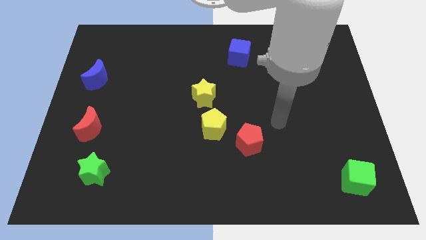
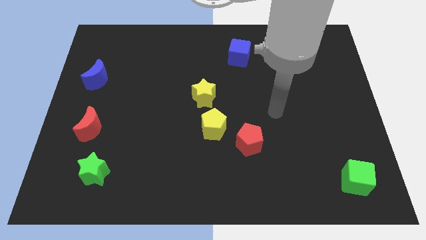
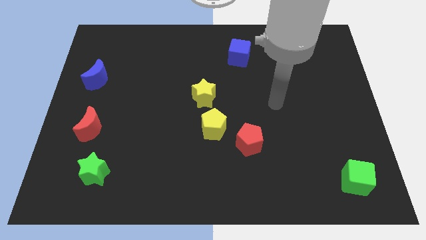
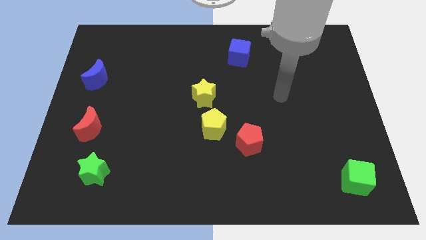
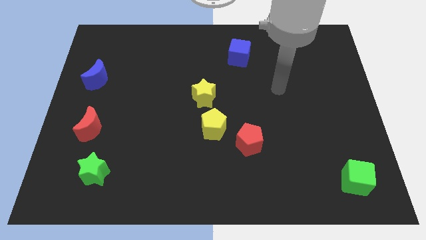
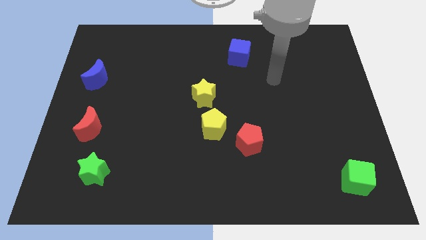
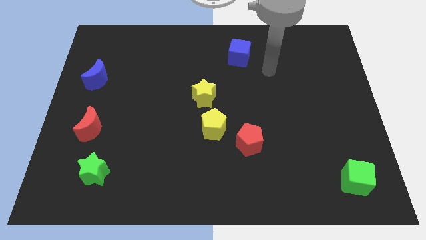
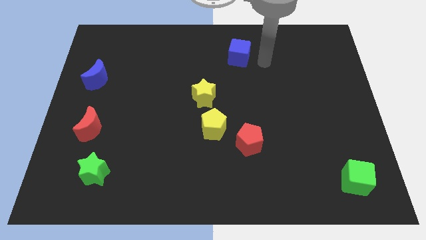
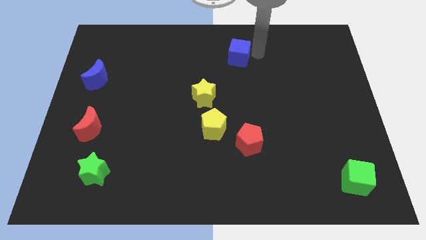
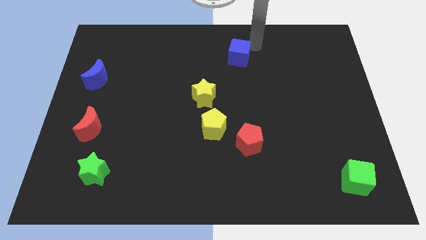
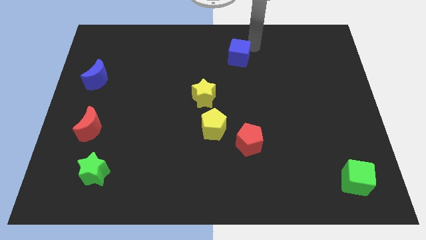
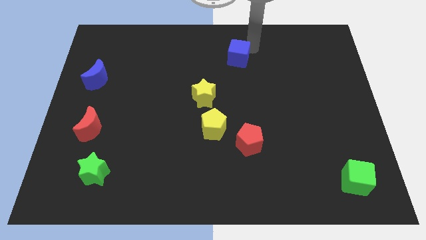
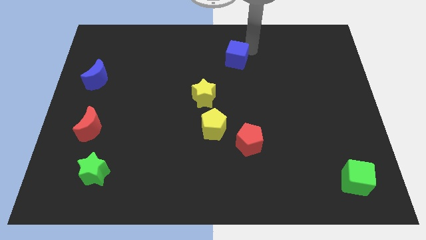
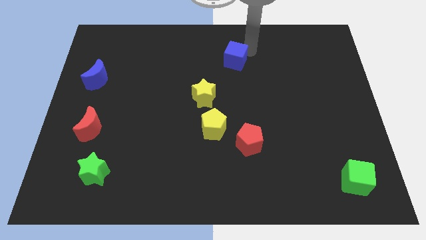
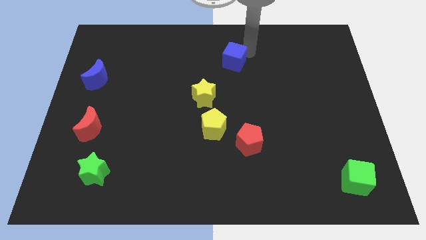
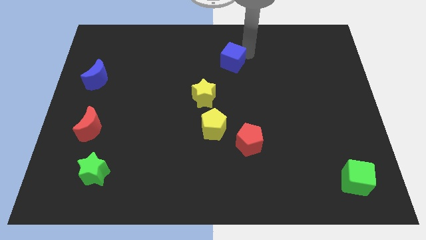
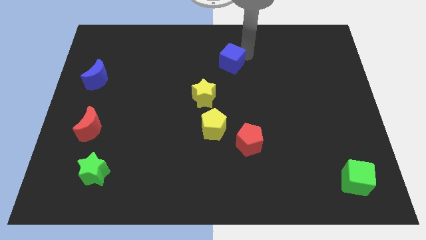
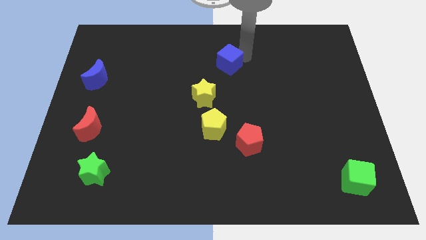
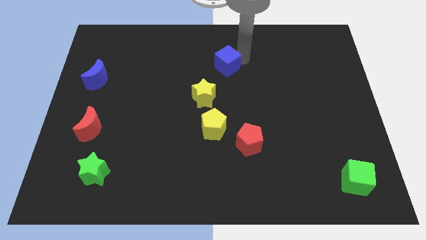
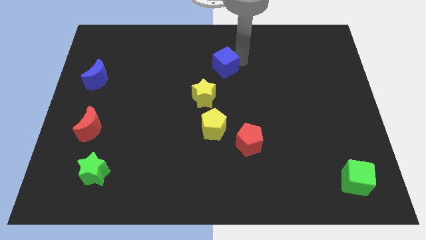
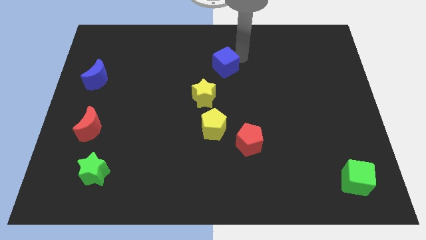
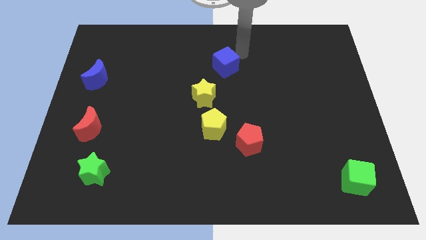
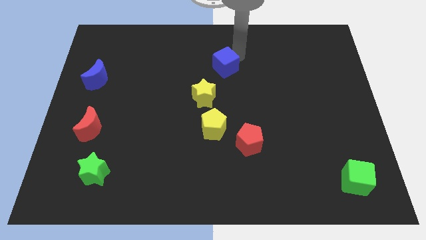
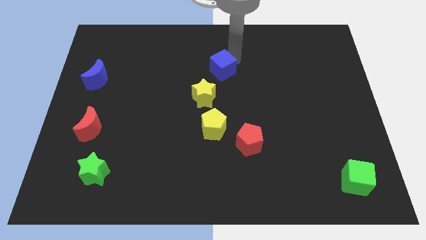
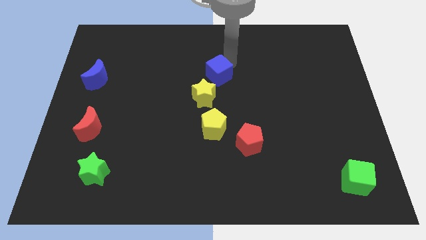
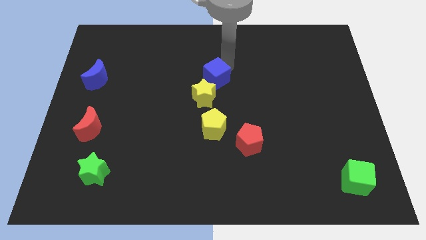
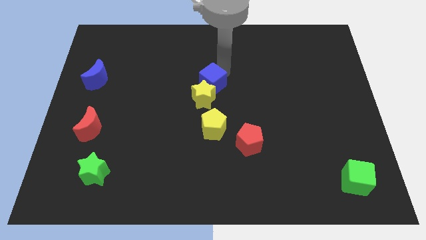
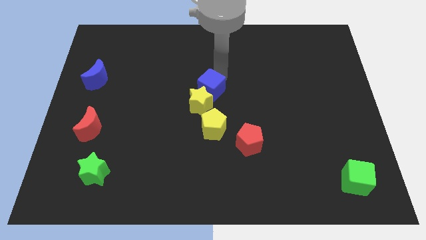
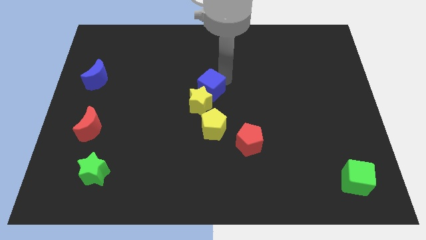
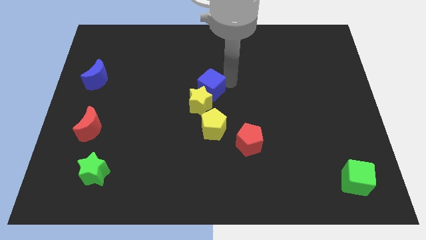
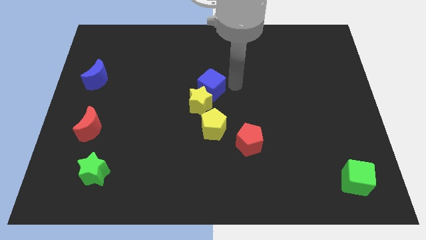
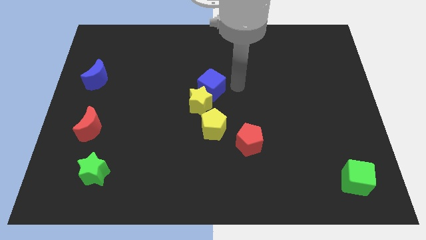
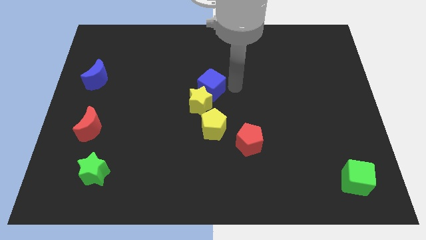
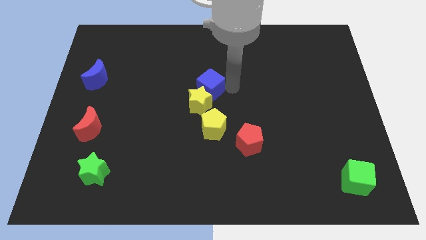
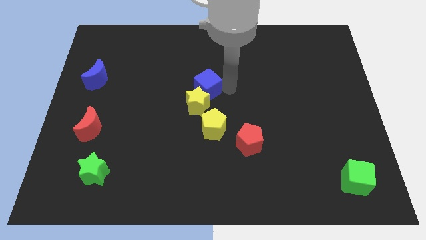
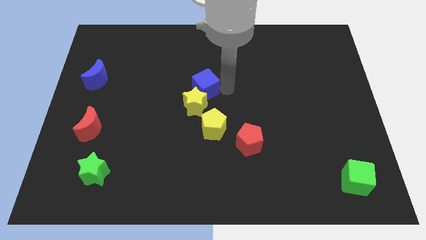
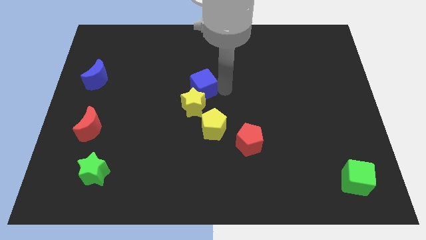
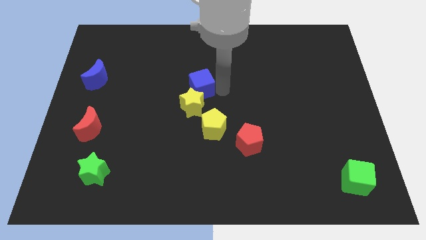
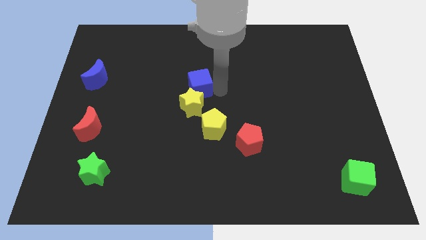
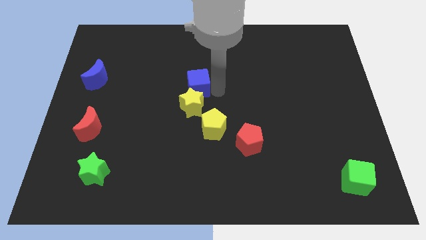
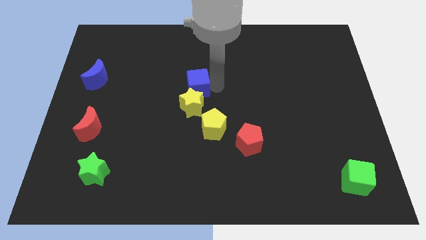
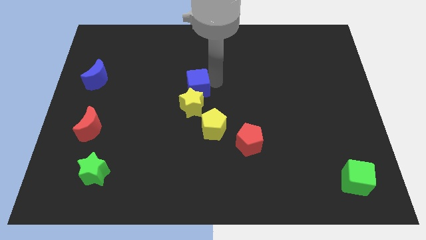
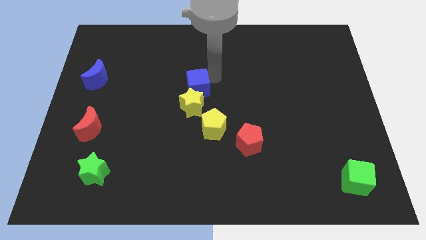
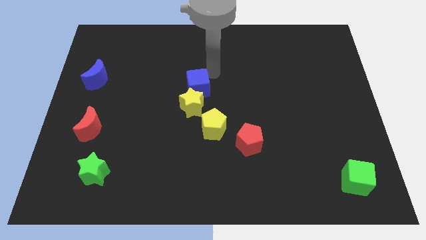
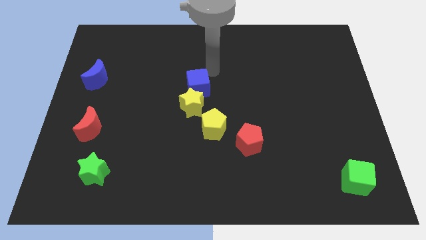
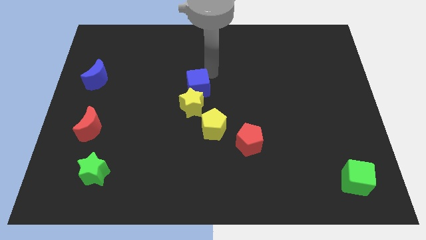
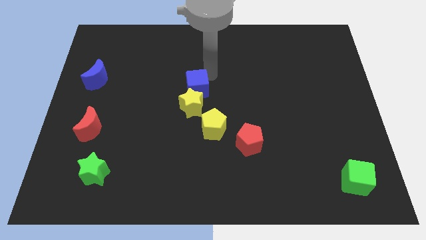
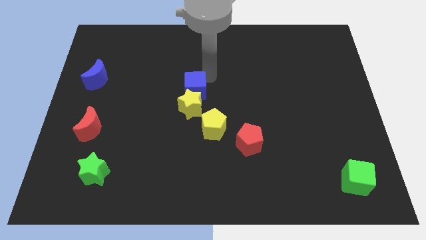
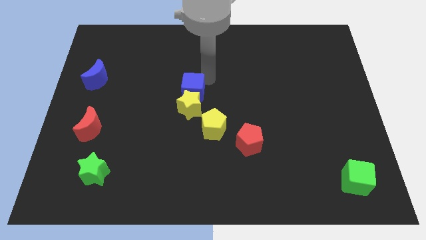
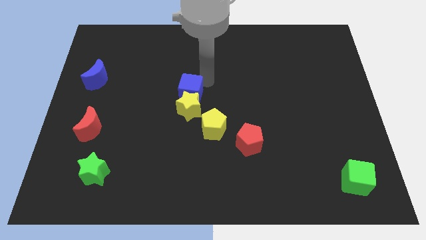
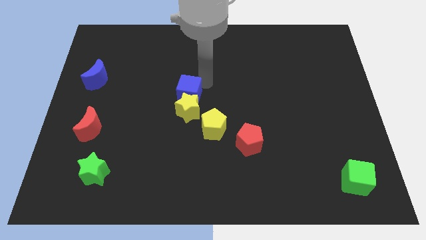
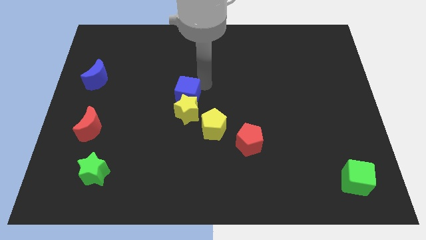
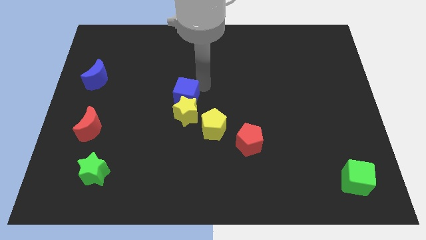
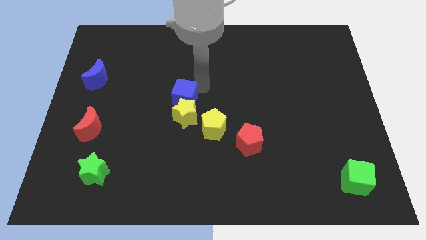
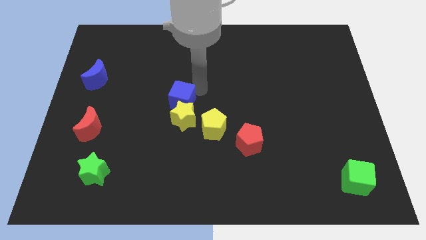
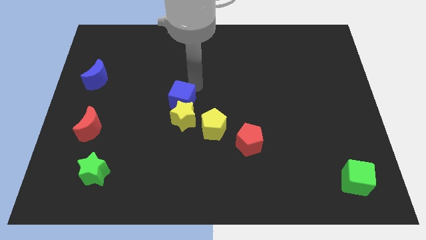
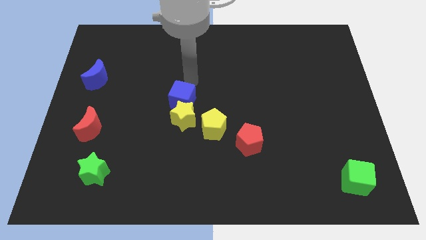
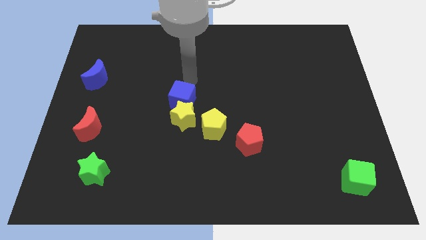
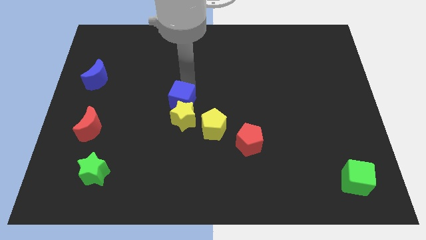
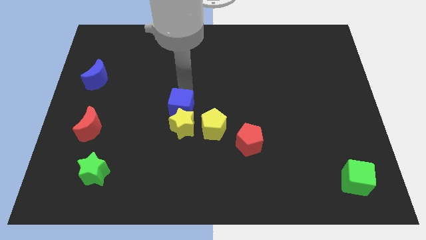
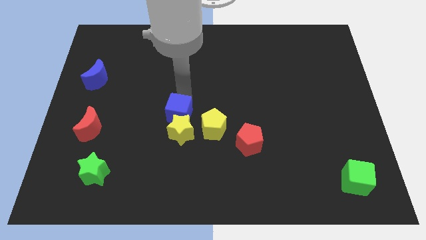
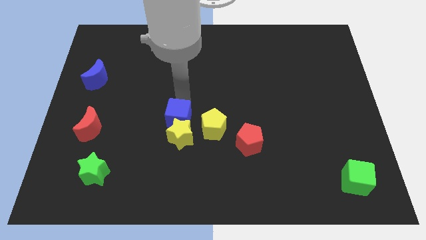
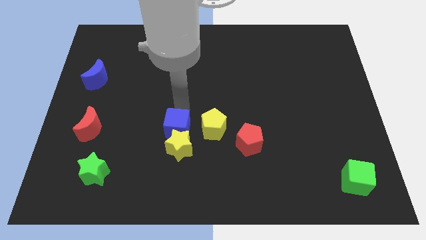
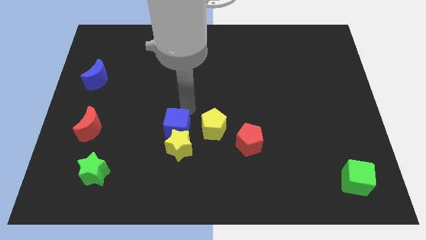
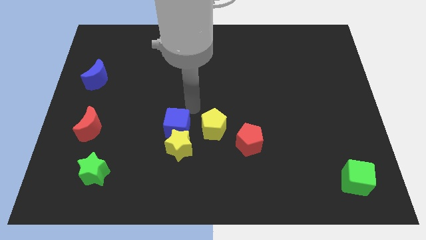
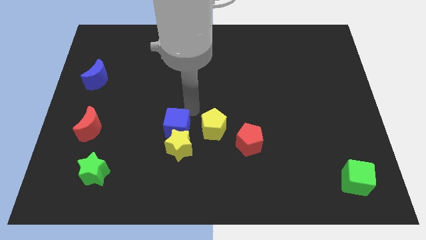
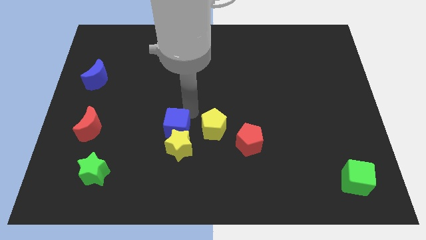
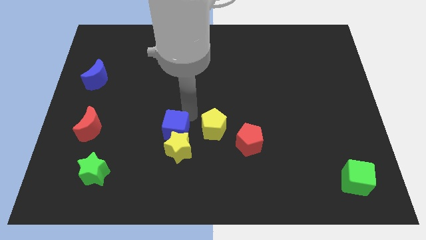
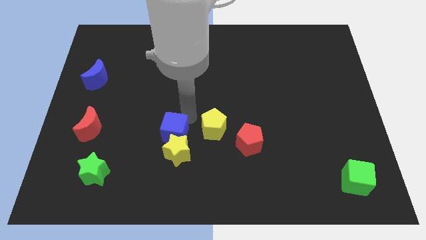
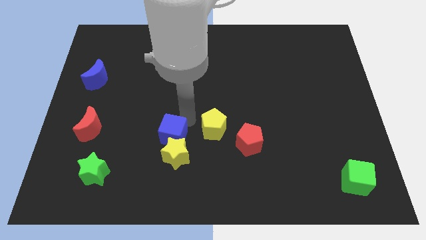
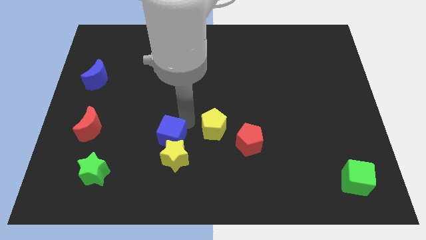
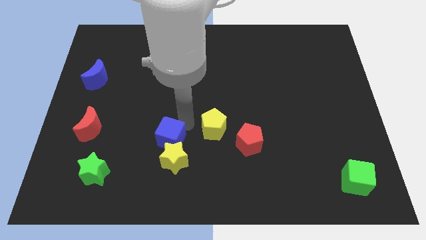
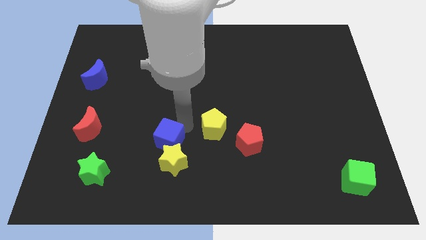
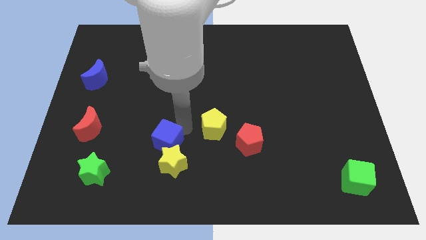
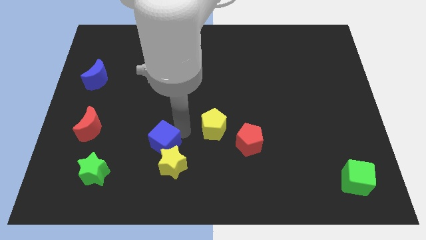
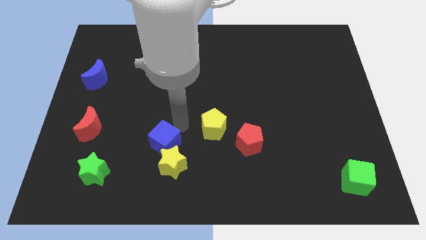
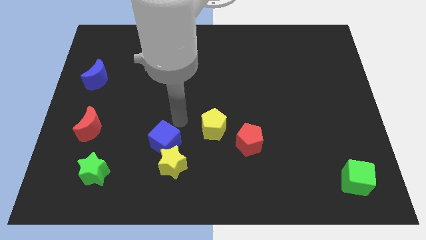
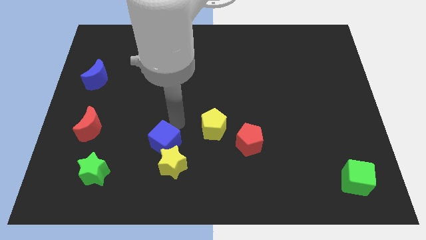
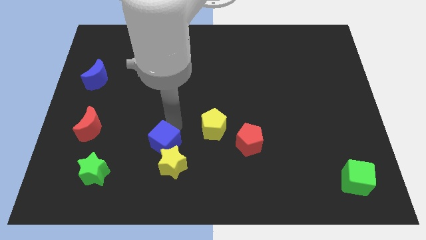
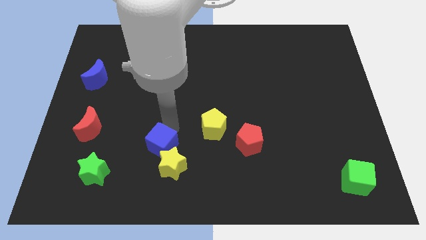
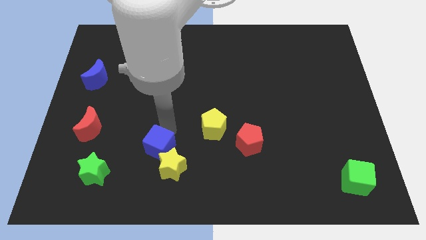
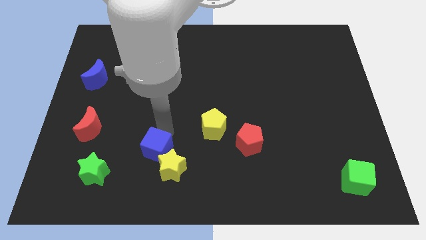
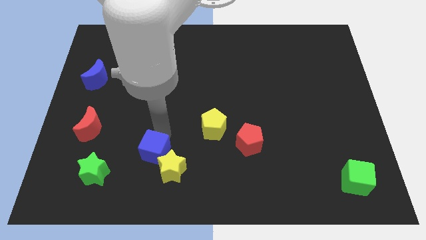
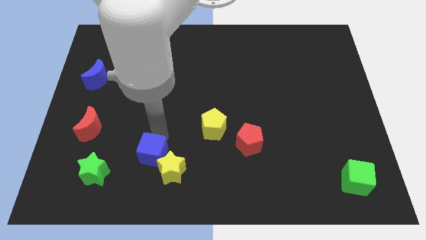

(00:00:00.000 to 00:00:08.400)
move the blue cube to the right of the green star
